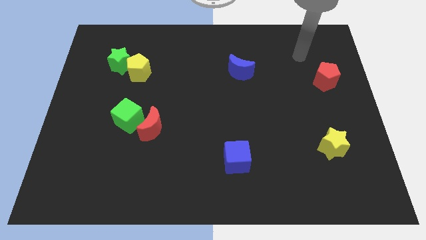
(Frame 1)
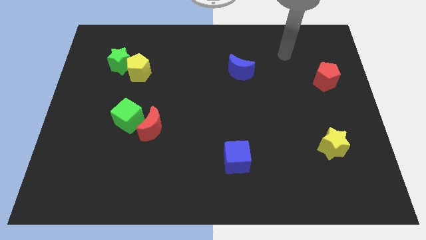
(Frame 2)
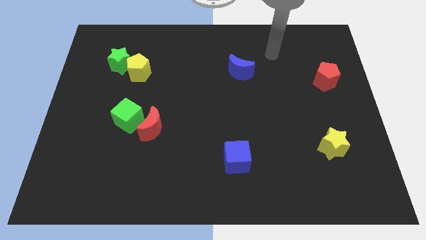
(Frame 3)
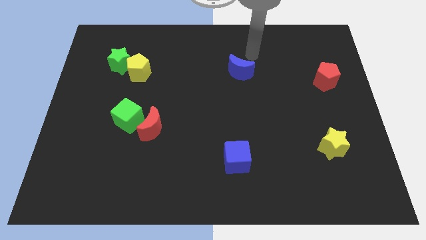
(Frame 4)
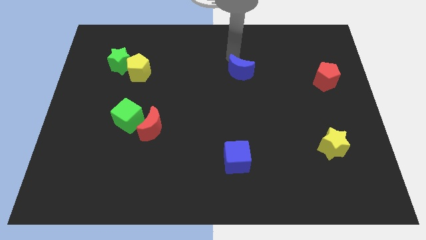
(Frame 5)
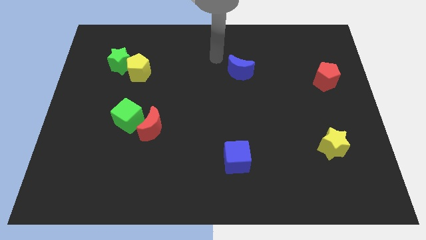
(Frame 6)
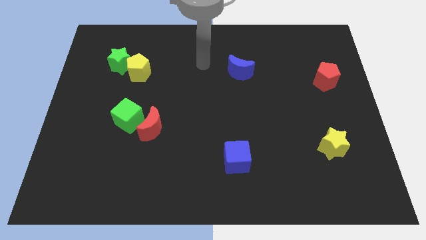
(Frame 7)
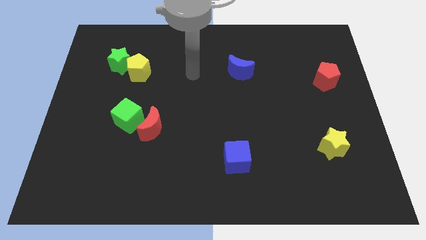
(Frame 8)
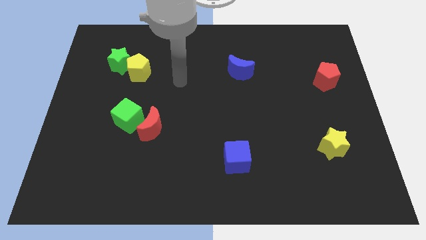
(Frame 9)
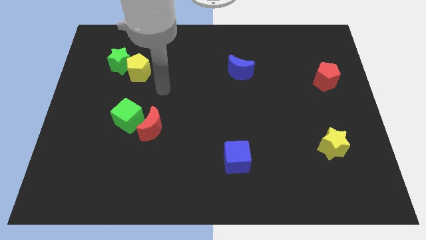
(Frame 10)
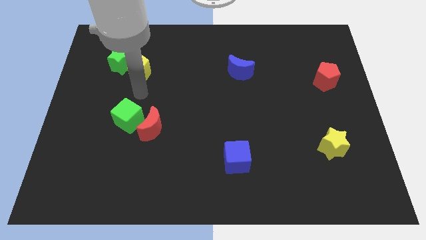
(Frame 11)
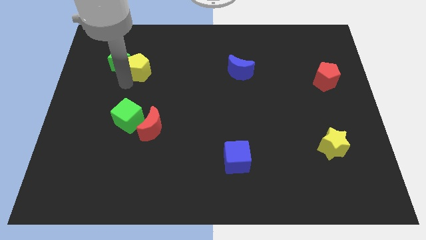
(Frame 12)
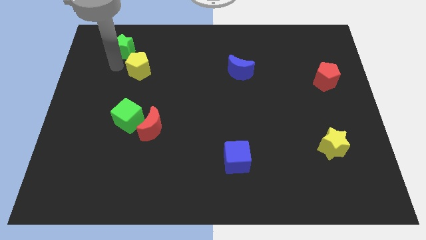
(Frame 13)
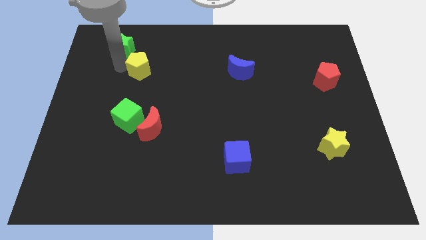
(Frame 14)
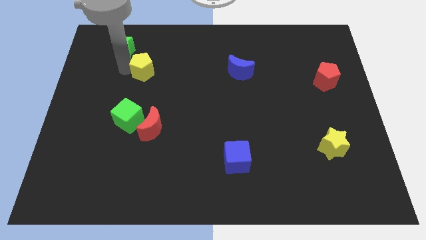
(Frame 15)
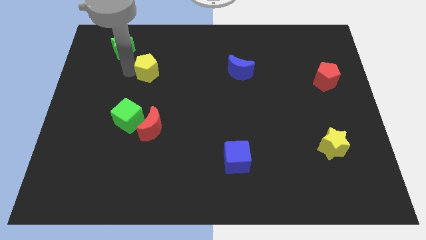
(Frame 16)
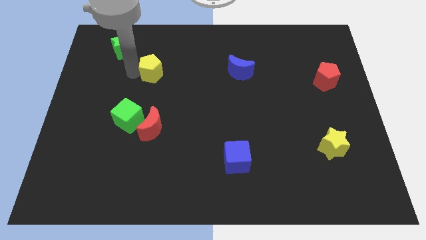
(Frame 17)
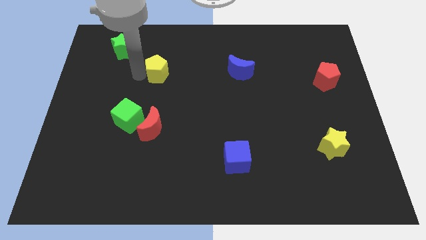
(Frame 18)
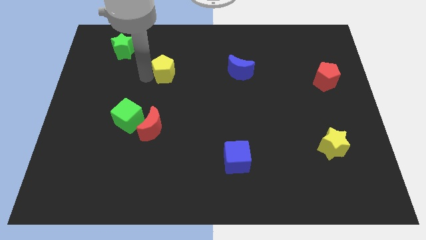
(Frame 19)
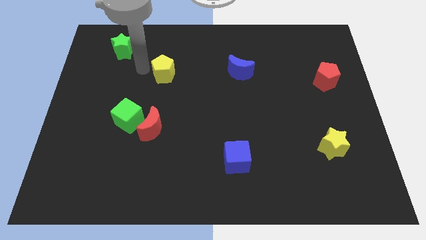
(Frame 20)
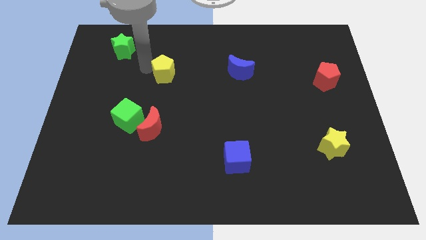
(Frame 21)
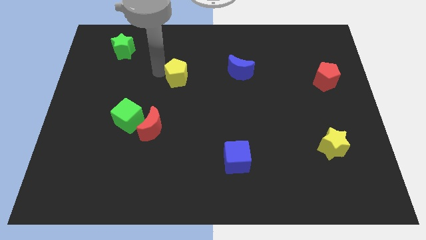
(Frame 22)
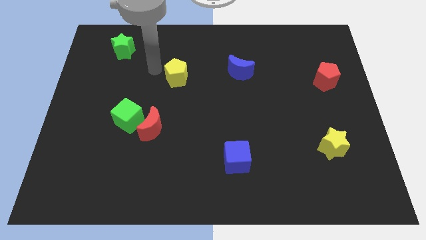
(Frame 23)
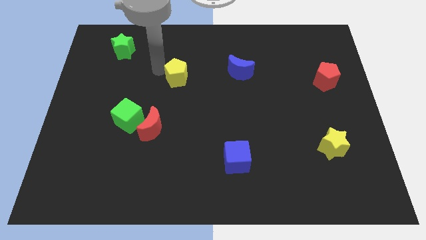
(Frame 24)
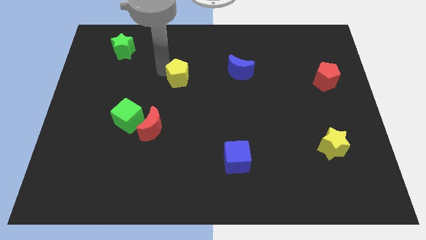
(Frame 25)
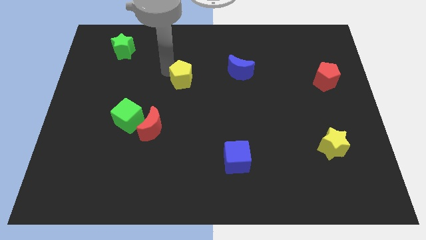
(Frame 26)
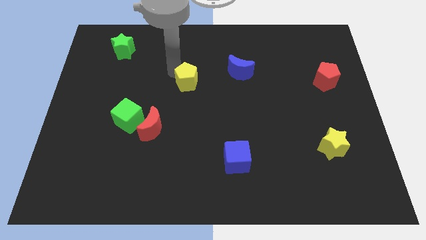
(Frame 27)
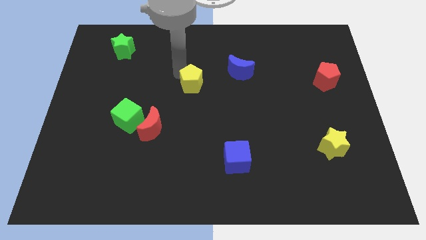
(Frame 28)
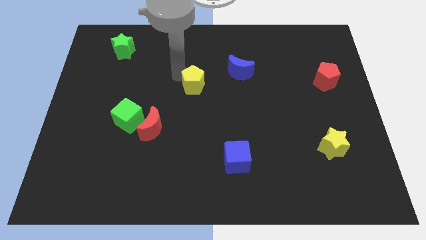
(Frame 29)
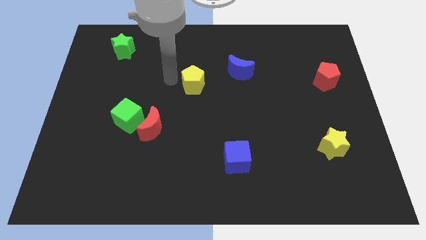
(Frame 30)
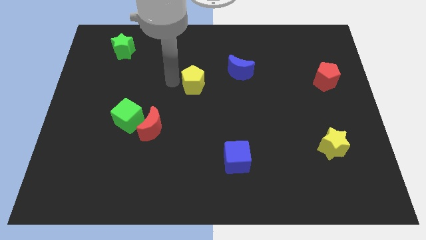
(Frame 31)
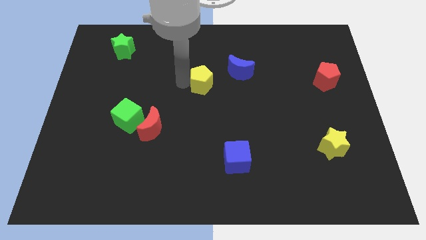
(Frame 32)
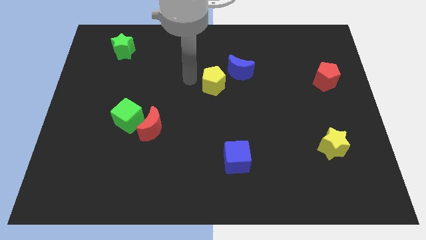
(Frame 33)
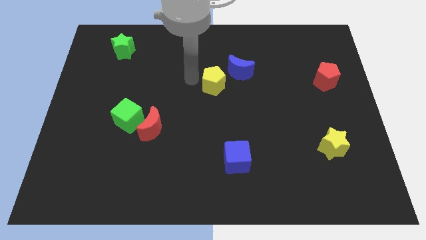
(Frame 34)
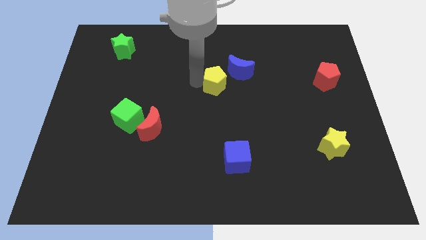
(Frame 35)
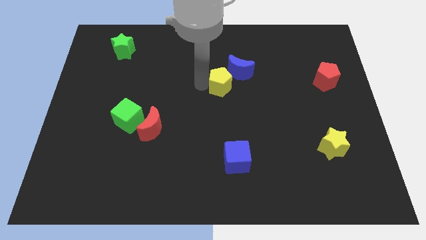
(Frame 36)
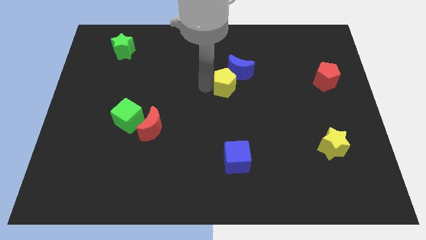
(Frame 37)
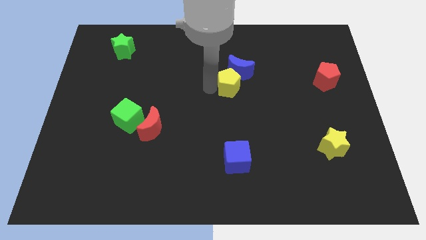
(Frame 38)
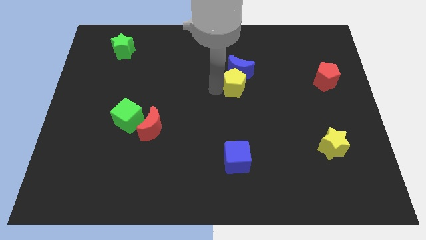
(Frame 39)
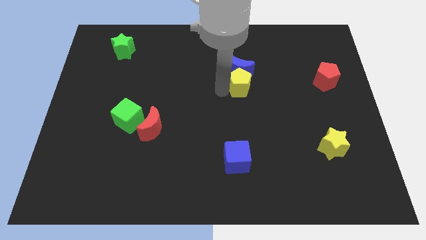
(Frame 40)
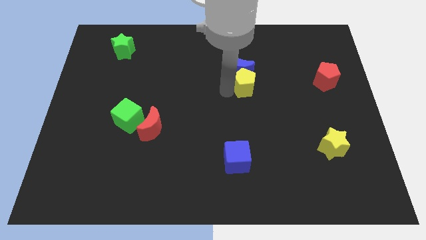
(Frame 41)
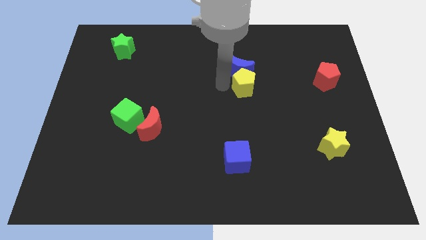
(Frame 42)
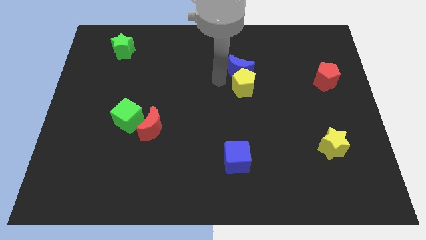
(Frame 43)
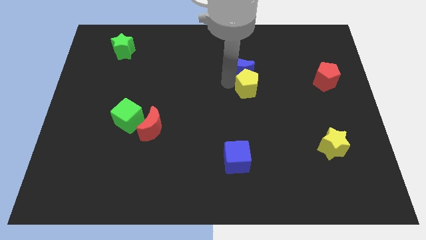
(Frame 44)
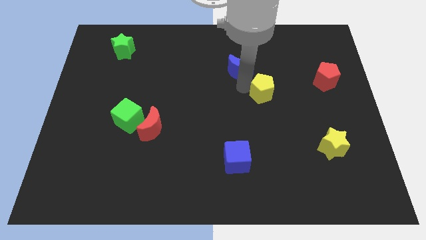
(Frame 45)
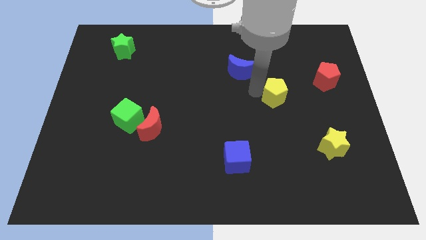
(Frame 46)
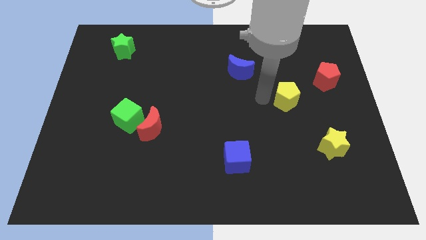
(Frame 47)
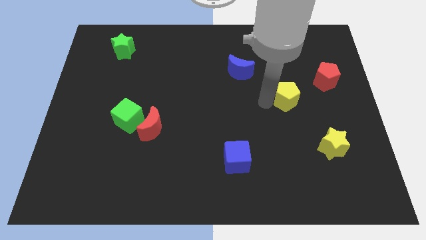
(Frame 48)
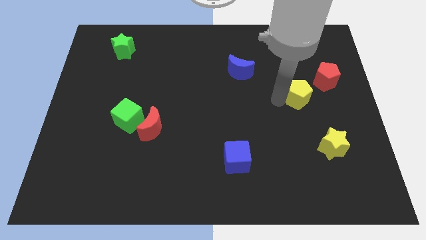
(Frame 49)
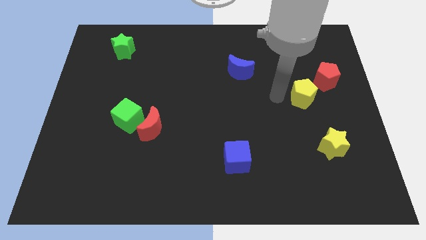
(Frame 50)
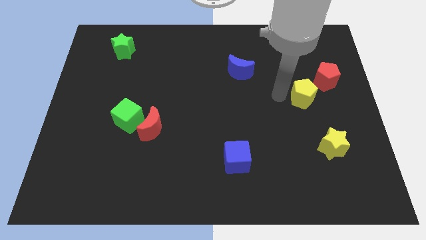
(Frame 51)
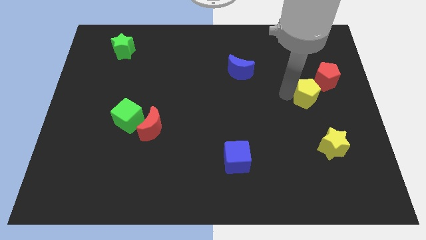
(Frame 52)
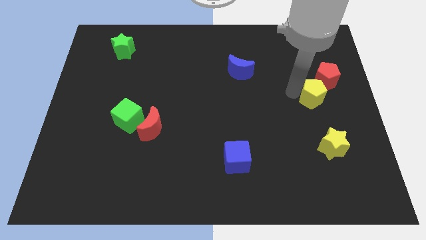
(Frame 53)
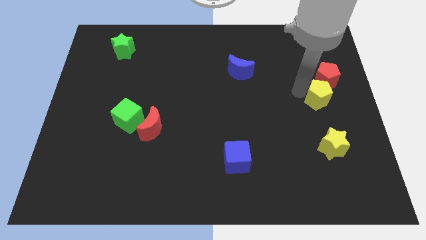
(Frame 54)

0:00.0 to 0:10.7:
put the yellow pentagon to the right side

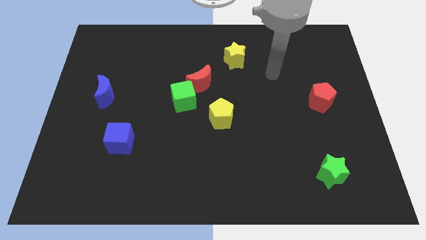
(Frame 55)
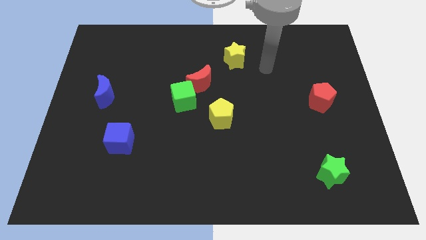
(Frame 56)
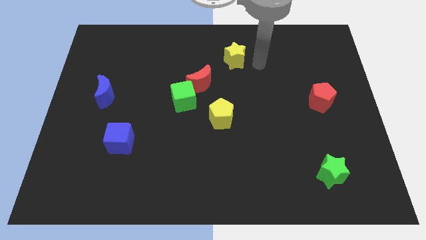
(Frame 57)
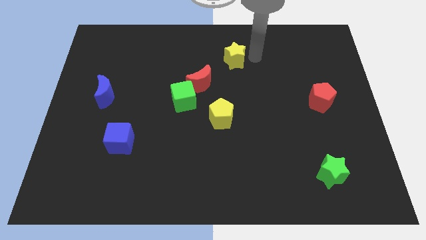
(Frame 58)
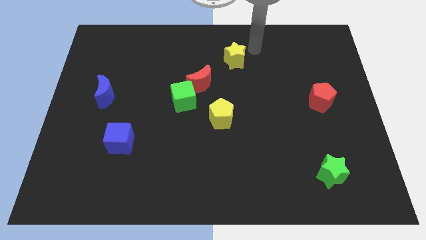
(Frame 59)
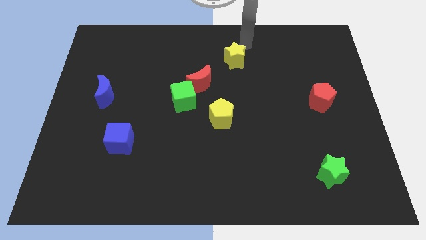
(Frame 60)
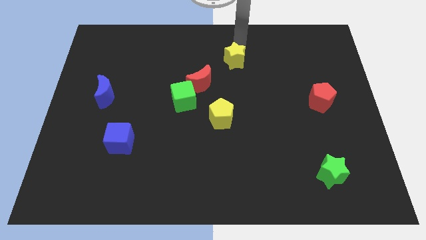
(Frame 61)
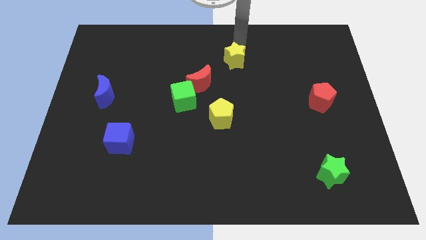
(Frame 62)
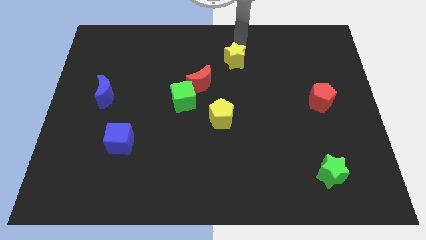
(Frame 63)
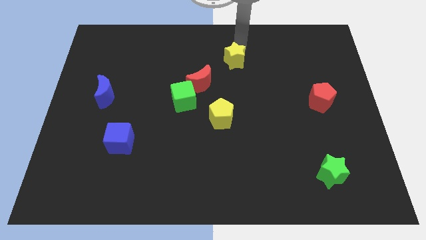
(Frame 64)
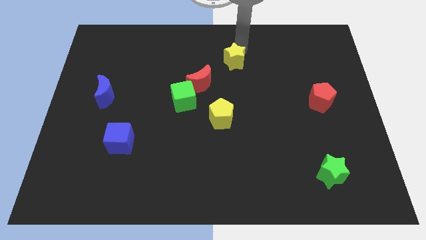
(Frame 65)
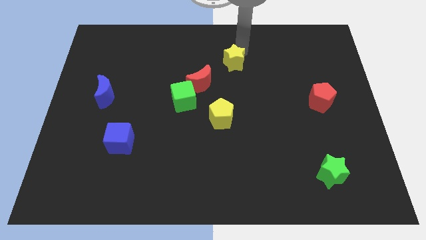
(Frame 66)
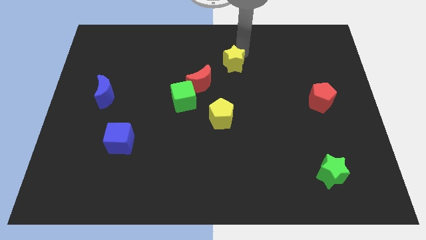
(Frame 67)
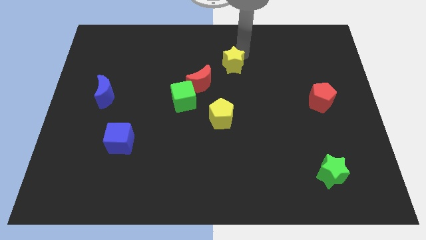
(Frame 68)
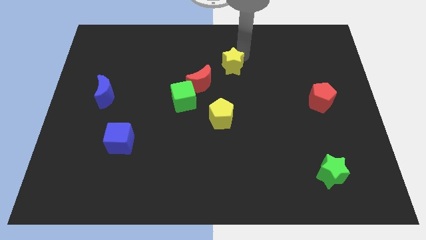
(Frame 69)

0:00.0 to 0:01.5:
push the yellow star to the center
